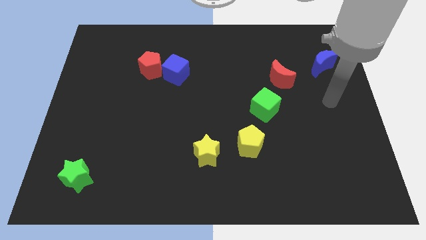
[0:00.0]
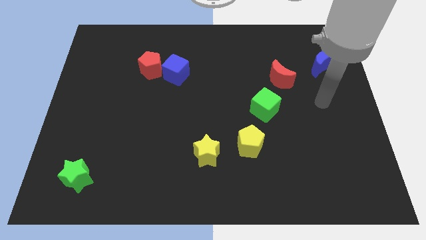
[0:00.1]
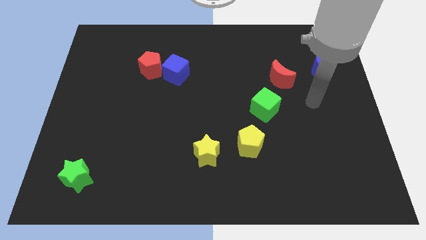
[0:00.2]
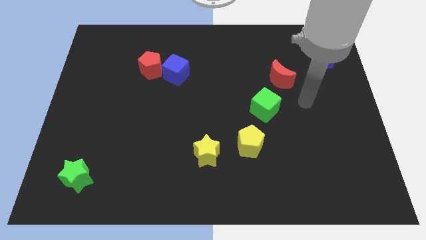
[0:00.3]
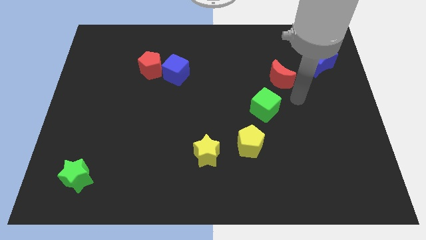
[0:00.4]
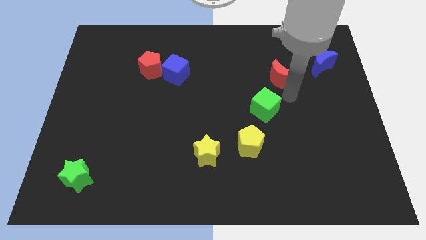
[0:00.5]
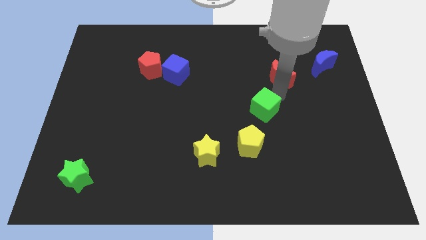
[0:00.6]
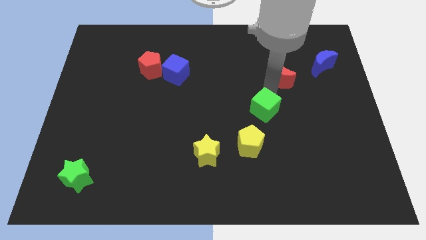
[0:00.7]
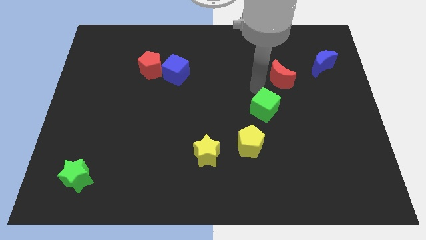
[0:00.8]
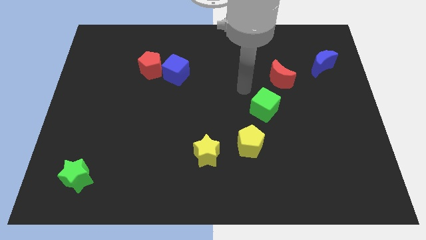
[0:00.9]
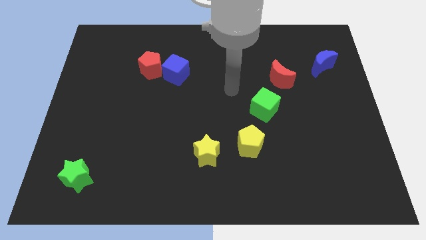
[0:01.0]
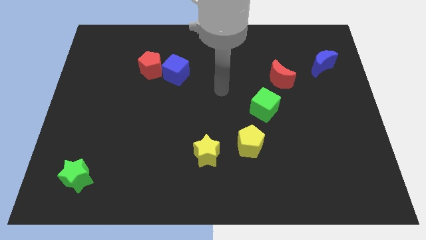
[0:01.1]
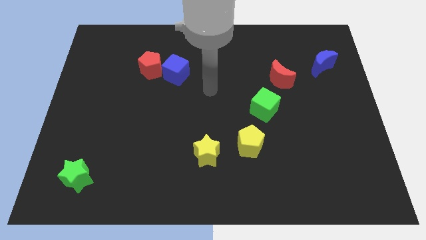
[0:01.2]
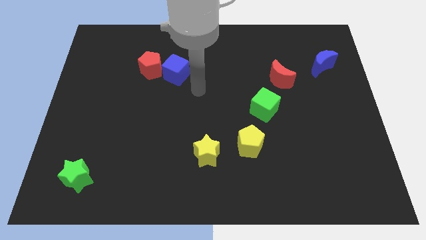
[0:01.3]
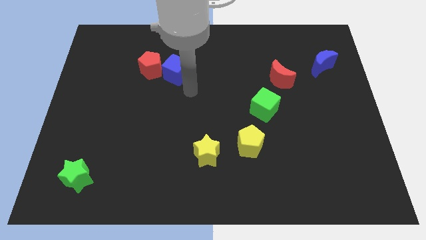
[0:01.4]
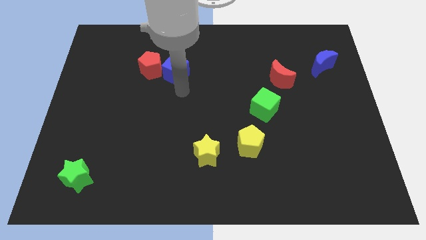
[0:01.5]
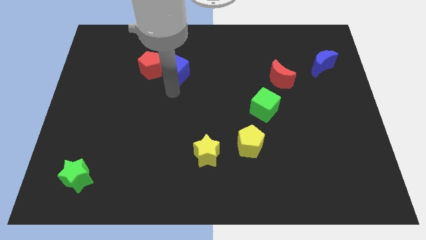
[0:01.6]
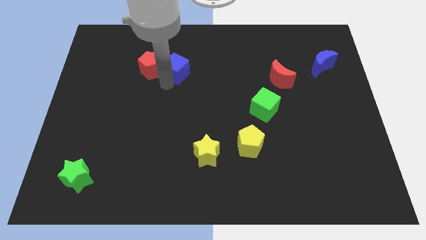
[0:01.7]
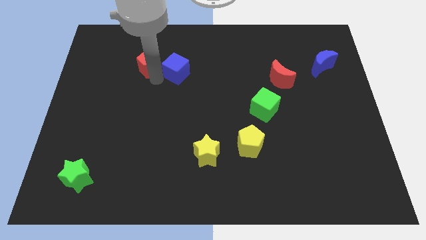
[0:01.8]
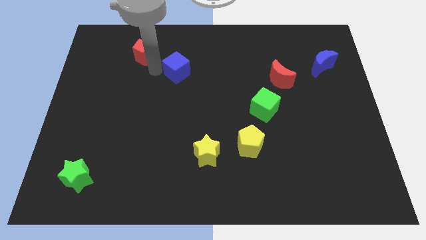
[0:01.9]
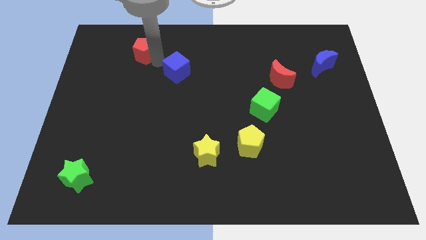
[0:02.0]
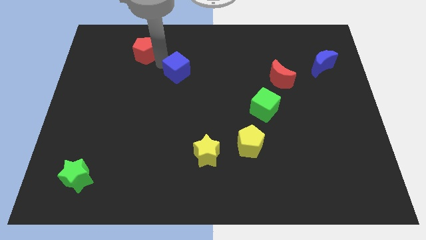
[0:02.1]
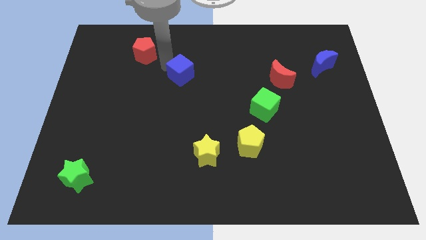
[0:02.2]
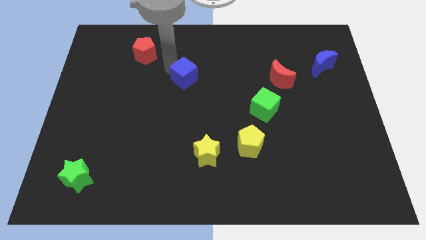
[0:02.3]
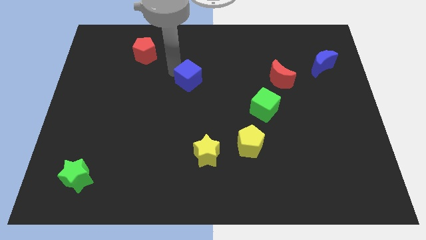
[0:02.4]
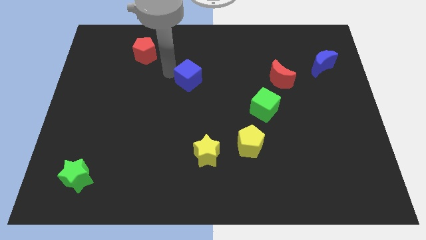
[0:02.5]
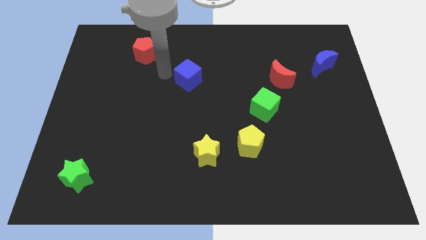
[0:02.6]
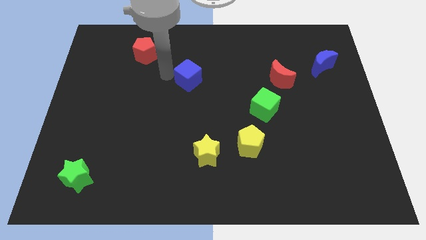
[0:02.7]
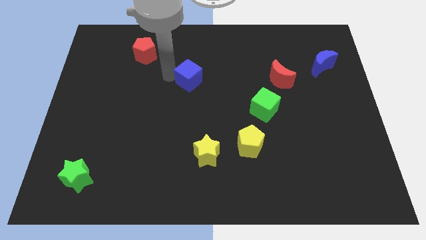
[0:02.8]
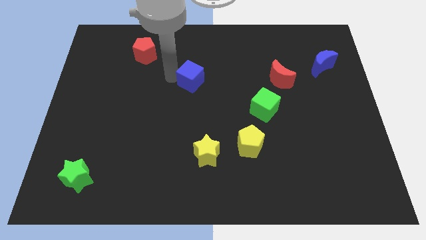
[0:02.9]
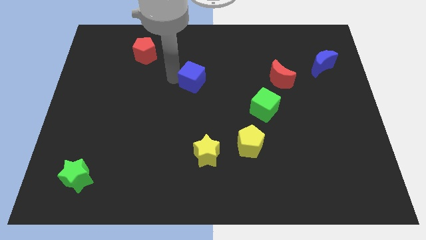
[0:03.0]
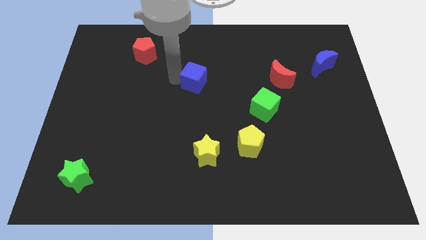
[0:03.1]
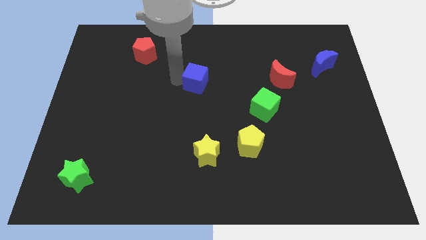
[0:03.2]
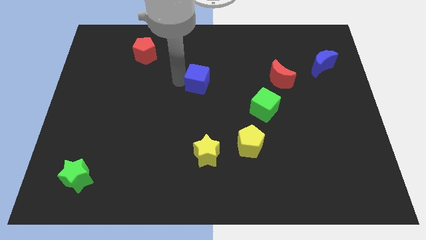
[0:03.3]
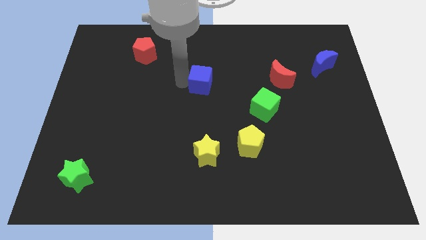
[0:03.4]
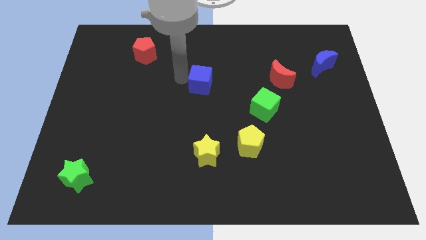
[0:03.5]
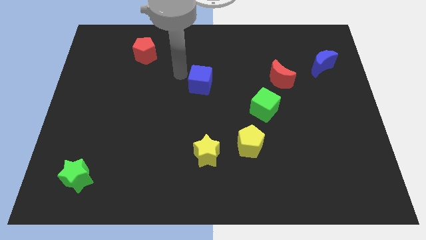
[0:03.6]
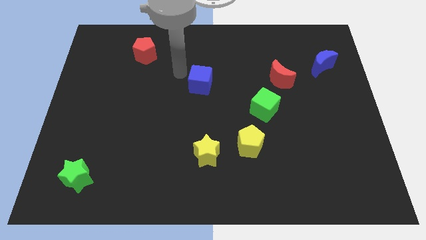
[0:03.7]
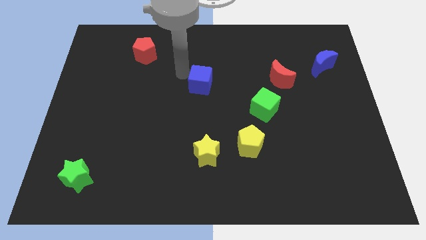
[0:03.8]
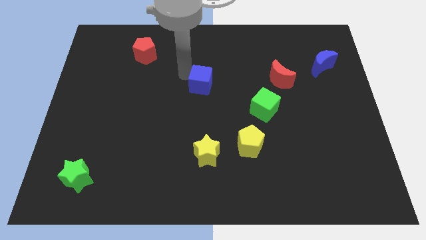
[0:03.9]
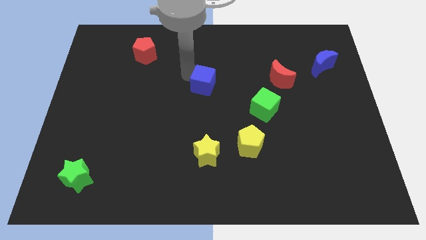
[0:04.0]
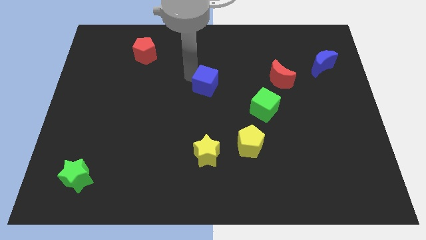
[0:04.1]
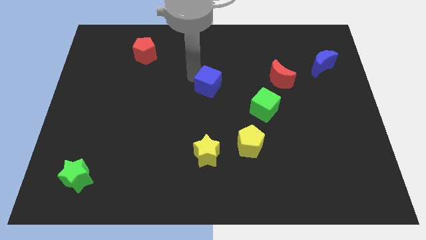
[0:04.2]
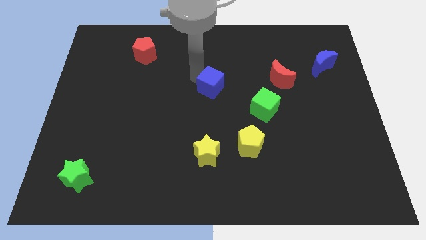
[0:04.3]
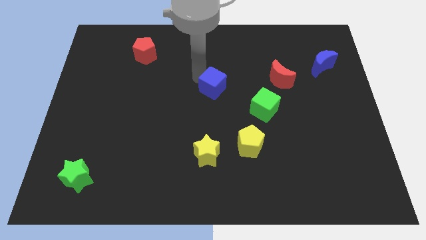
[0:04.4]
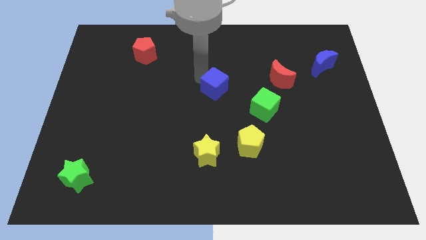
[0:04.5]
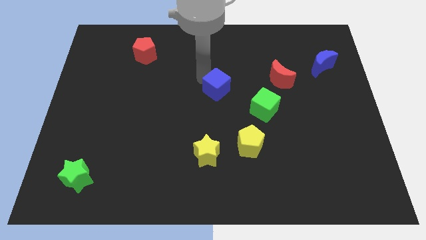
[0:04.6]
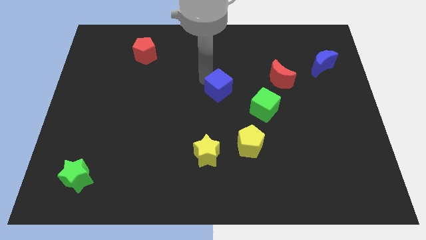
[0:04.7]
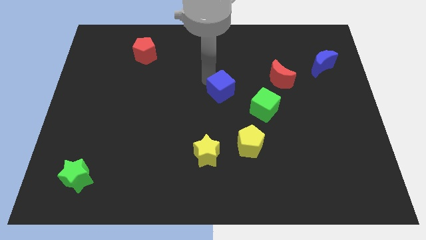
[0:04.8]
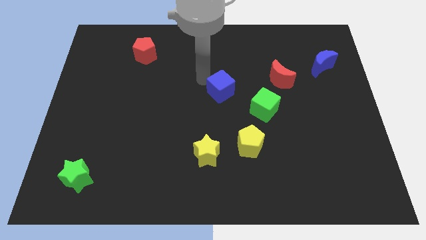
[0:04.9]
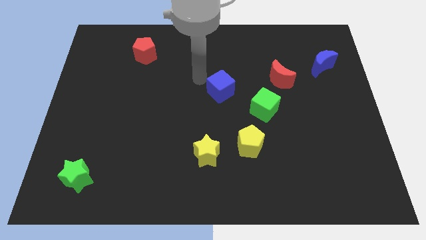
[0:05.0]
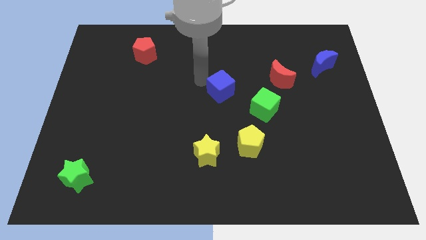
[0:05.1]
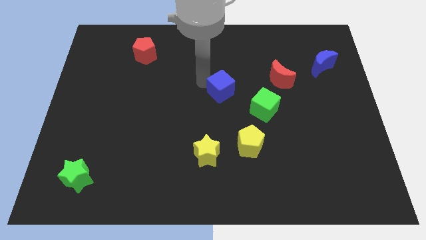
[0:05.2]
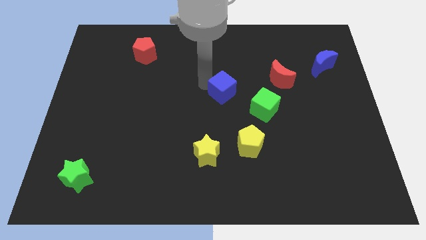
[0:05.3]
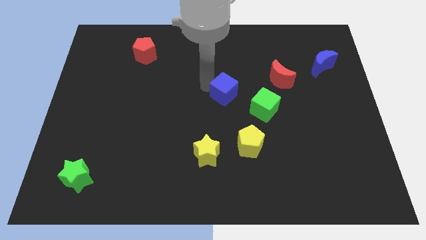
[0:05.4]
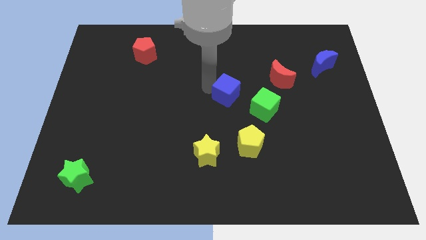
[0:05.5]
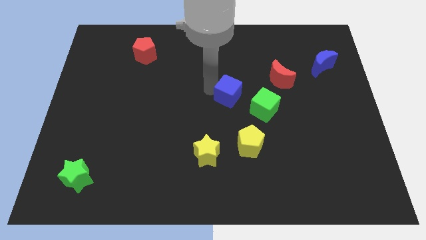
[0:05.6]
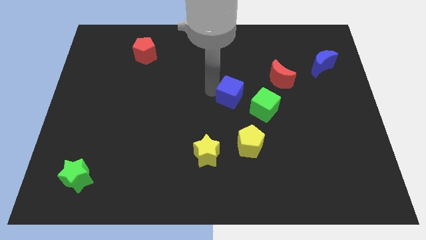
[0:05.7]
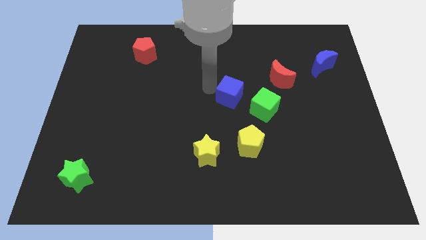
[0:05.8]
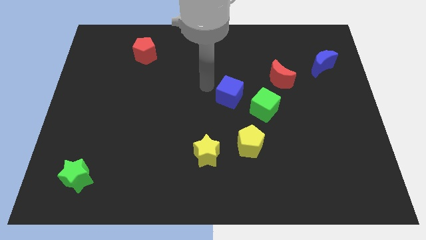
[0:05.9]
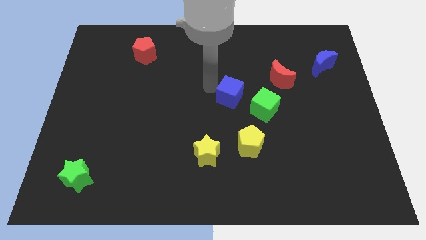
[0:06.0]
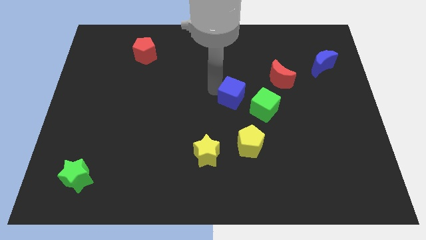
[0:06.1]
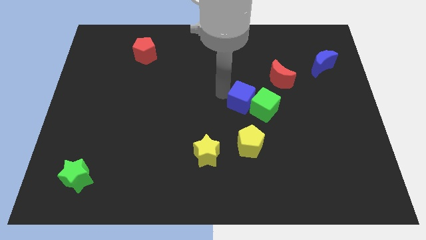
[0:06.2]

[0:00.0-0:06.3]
move the blue cube to the green cube

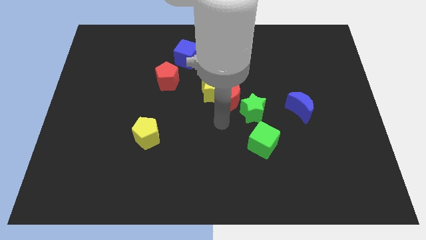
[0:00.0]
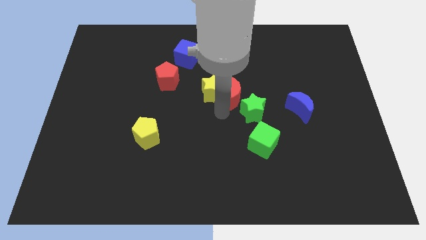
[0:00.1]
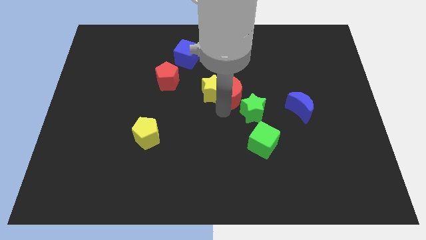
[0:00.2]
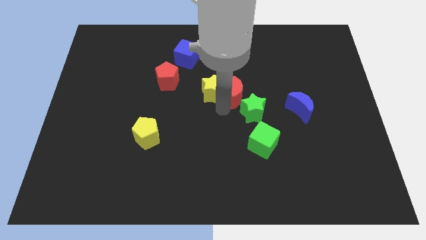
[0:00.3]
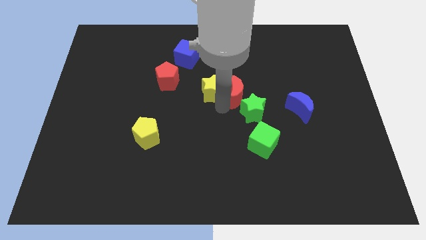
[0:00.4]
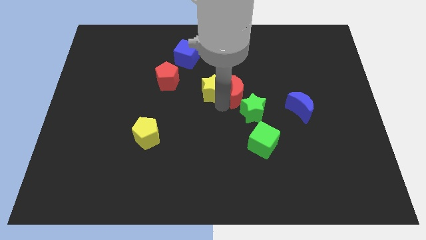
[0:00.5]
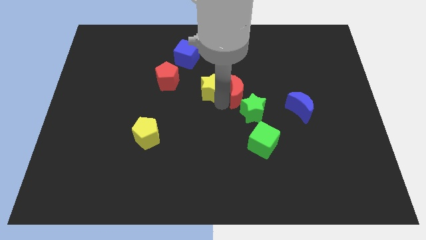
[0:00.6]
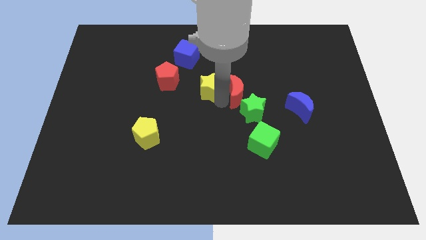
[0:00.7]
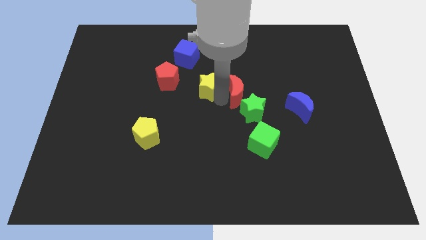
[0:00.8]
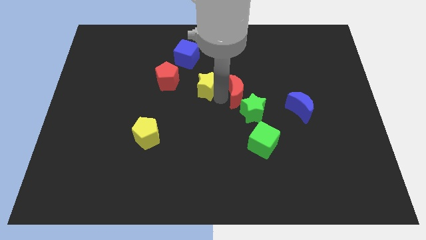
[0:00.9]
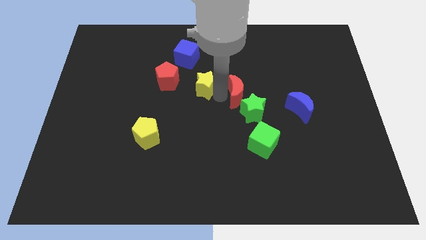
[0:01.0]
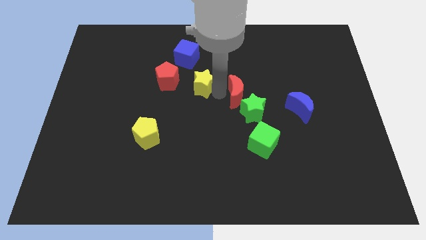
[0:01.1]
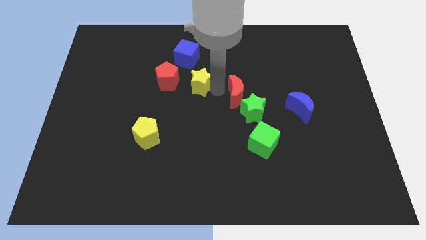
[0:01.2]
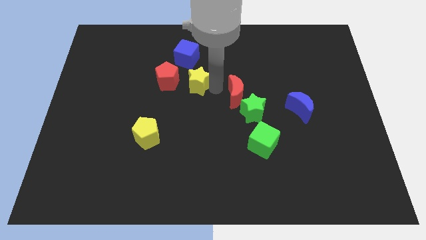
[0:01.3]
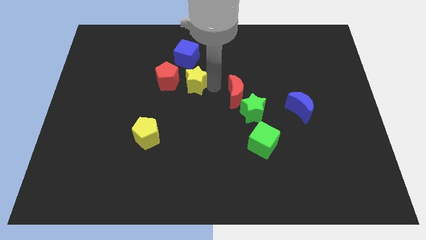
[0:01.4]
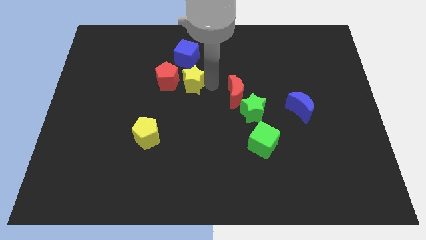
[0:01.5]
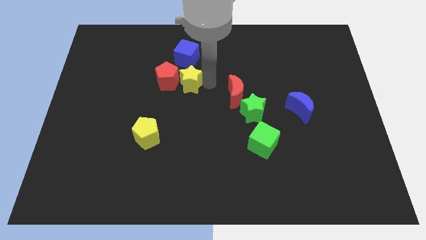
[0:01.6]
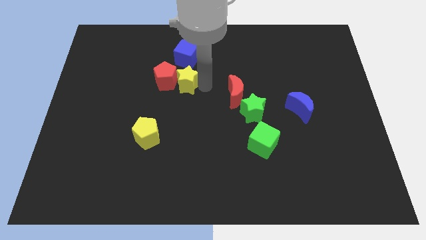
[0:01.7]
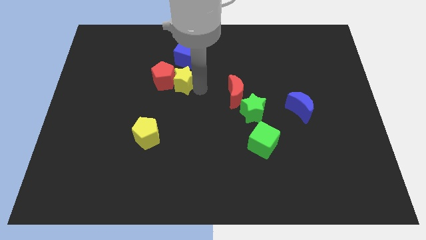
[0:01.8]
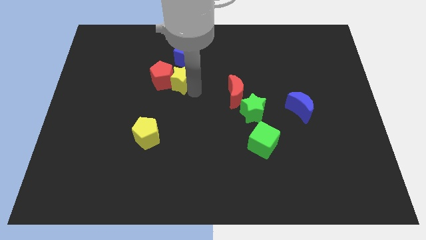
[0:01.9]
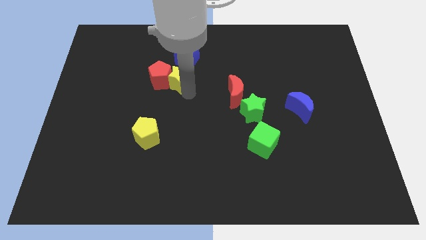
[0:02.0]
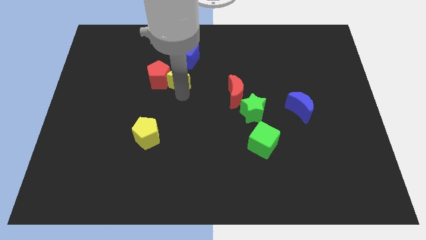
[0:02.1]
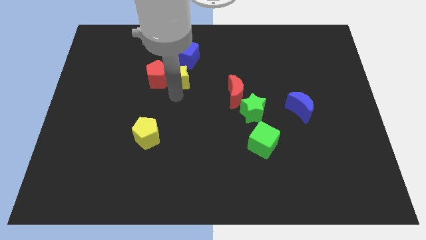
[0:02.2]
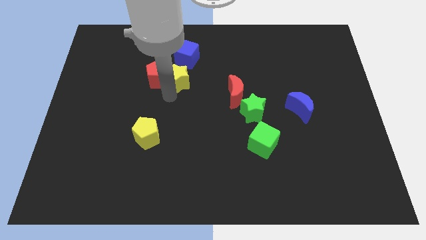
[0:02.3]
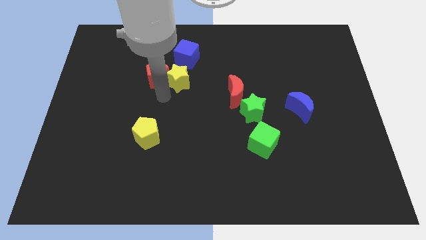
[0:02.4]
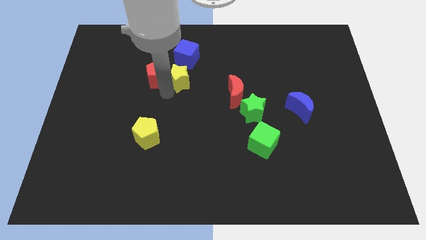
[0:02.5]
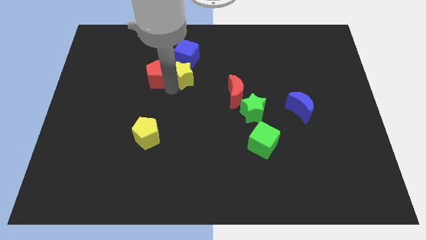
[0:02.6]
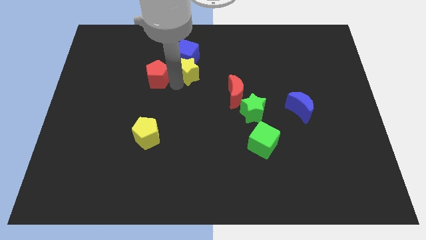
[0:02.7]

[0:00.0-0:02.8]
push the yellow star to the blue cube
